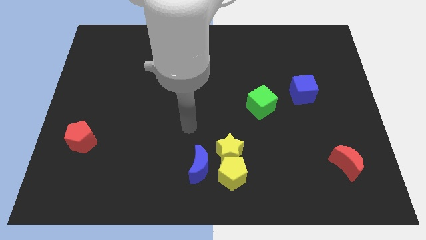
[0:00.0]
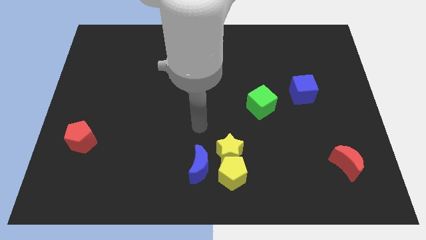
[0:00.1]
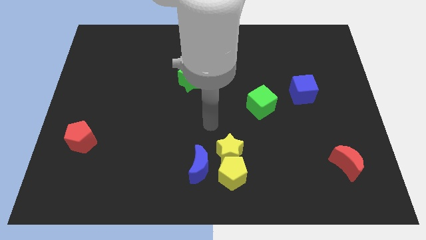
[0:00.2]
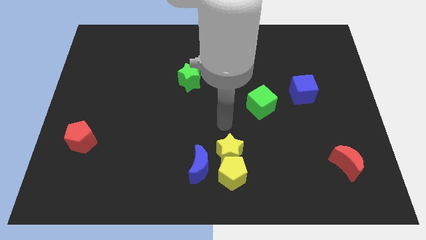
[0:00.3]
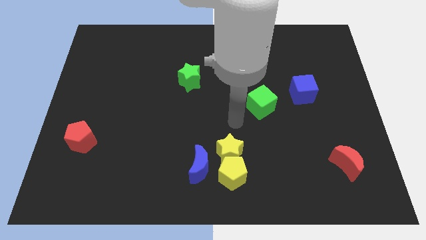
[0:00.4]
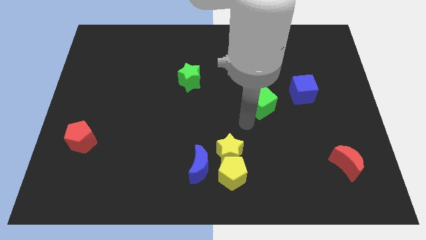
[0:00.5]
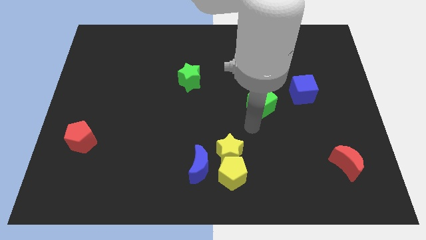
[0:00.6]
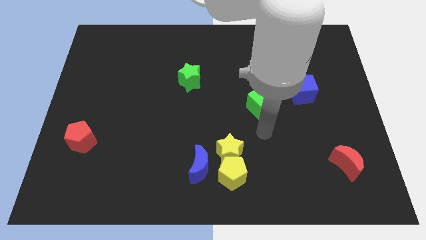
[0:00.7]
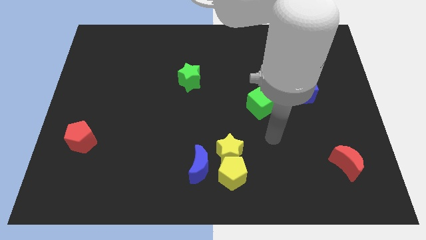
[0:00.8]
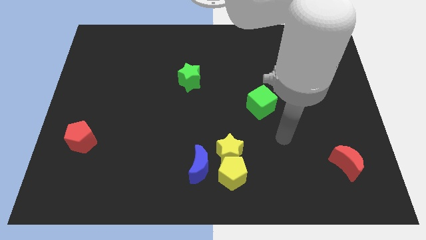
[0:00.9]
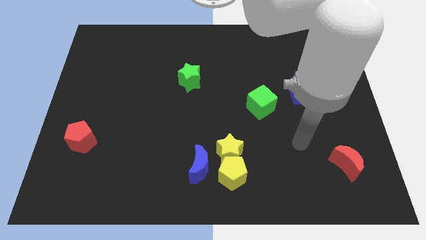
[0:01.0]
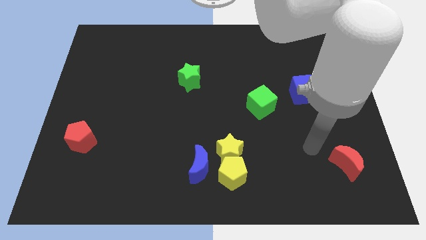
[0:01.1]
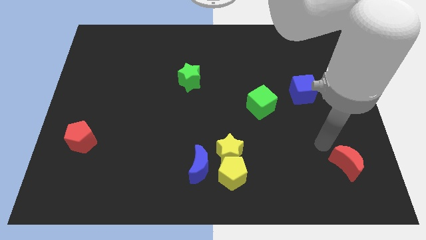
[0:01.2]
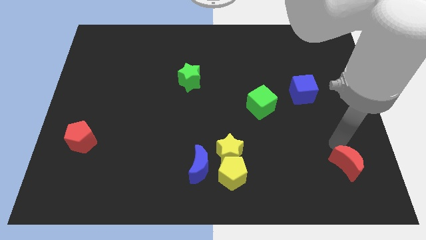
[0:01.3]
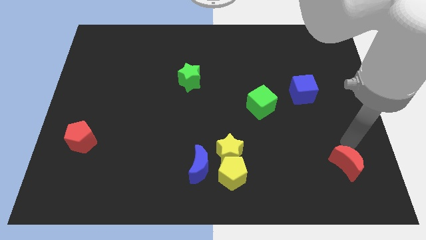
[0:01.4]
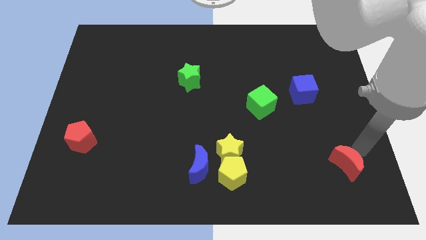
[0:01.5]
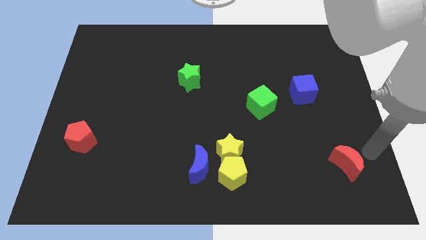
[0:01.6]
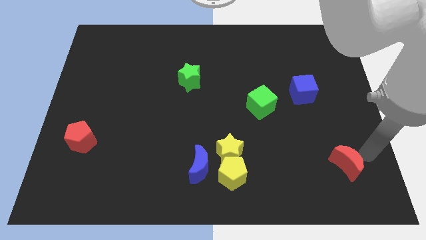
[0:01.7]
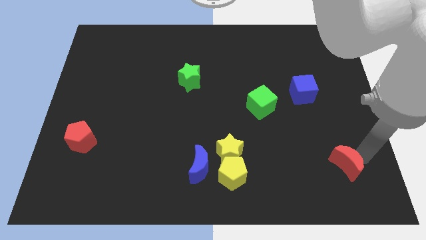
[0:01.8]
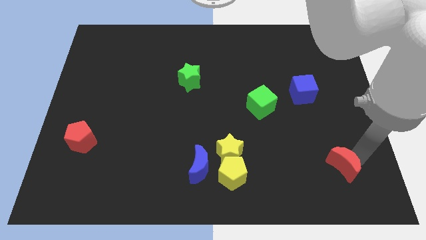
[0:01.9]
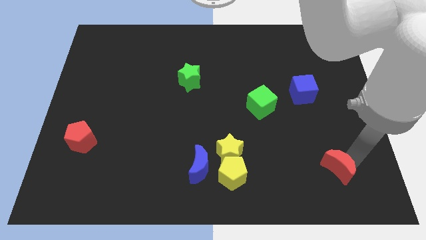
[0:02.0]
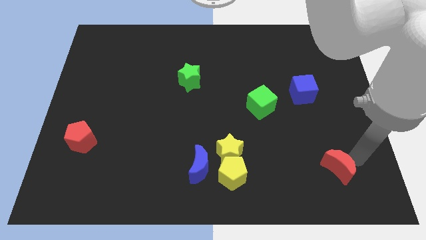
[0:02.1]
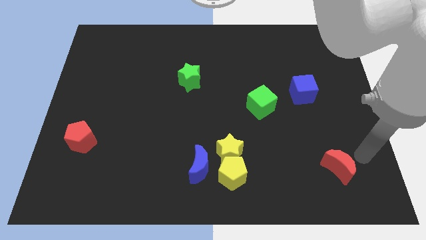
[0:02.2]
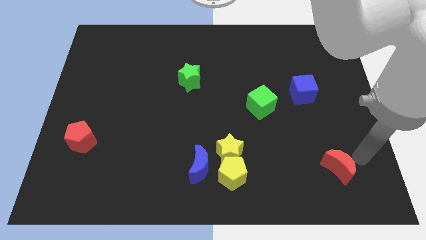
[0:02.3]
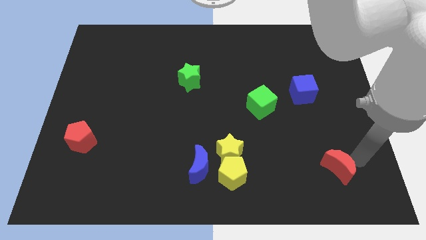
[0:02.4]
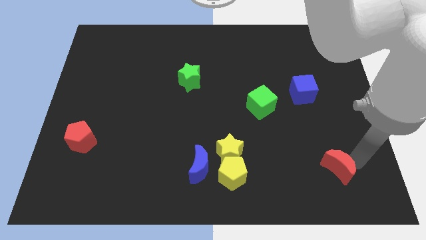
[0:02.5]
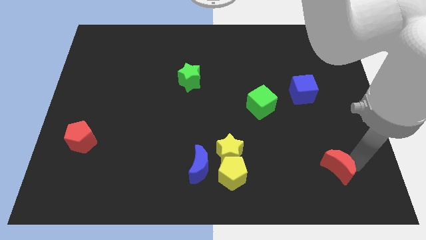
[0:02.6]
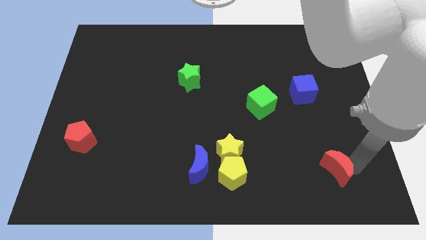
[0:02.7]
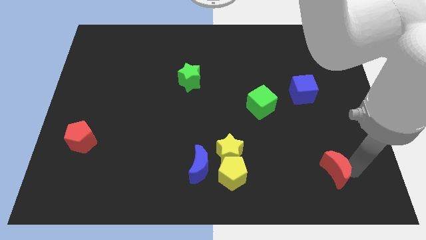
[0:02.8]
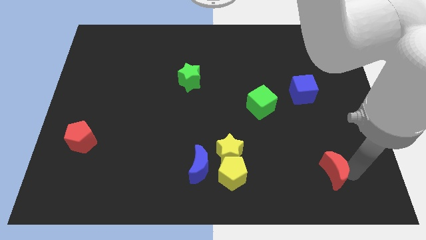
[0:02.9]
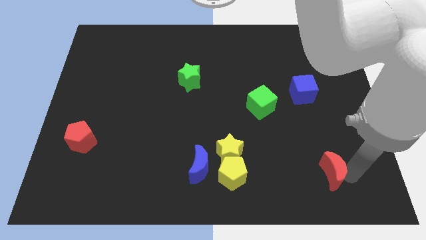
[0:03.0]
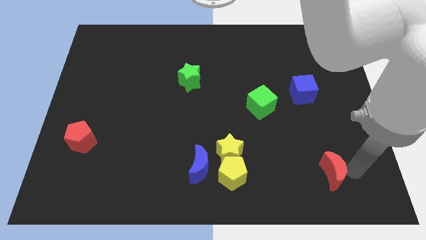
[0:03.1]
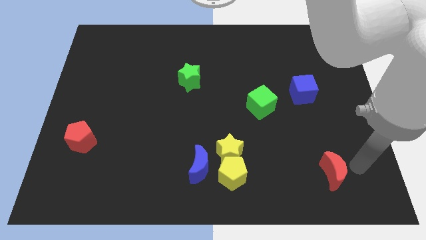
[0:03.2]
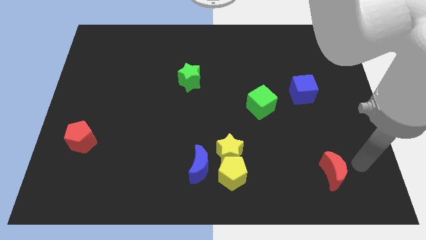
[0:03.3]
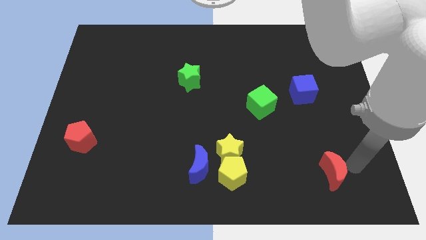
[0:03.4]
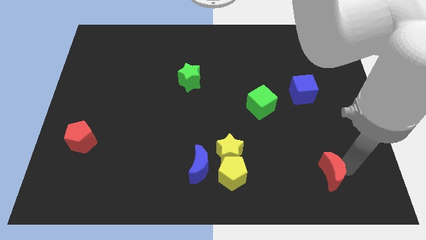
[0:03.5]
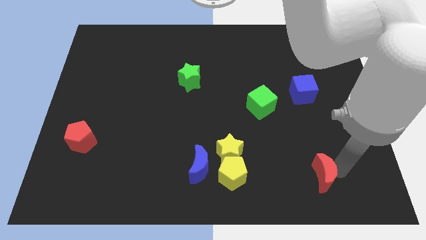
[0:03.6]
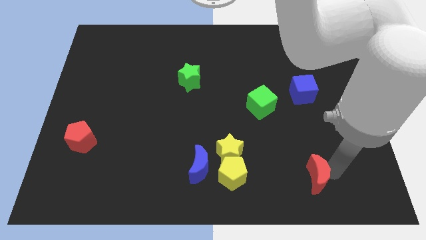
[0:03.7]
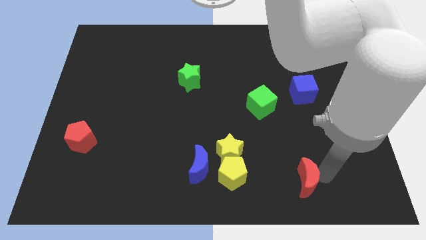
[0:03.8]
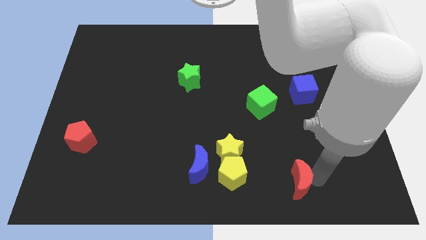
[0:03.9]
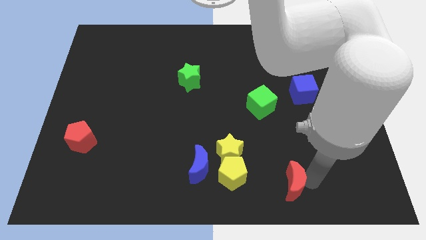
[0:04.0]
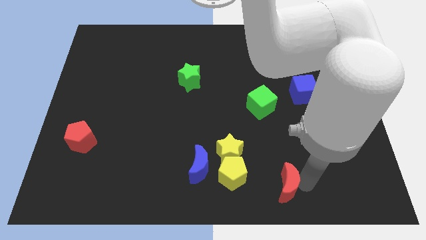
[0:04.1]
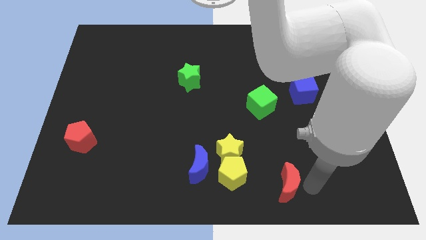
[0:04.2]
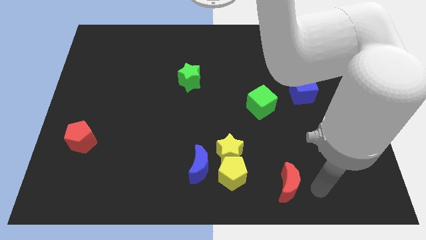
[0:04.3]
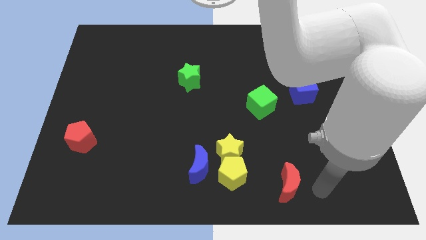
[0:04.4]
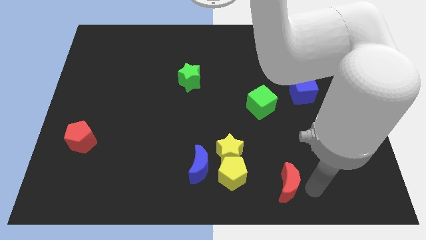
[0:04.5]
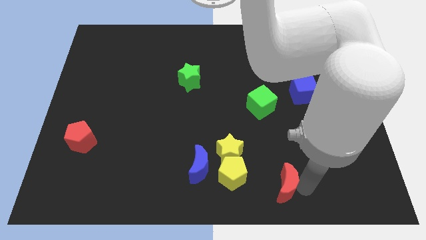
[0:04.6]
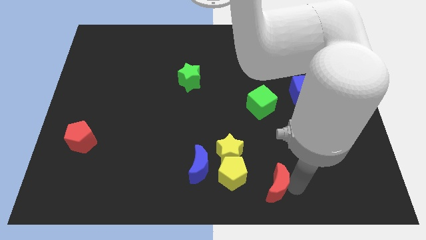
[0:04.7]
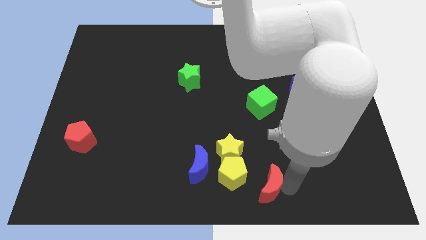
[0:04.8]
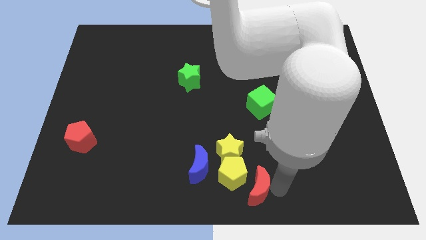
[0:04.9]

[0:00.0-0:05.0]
move the red moon close to the yellow pentagon

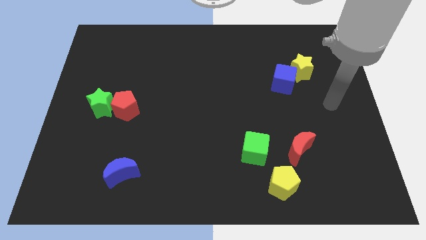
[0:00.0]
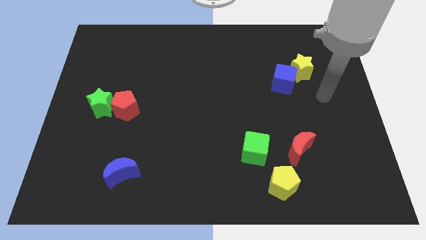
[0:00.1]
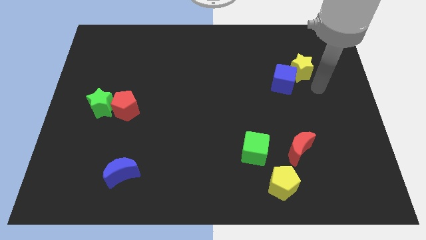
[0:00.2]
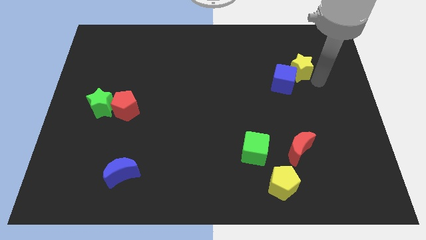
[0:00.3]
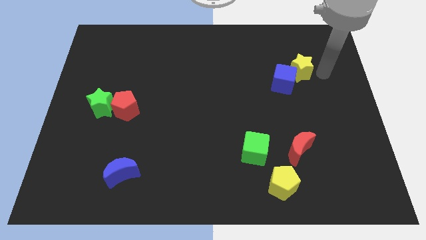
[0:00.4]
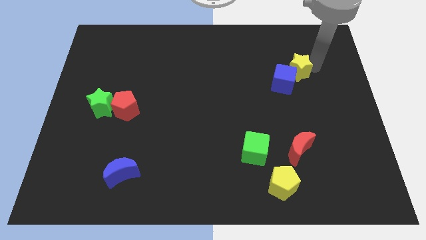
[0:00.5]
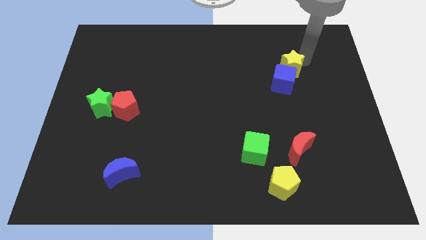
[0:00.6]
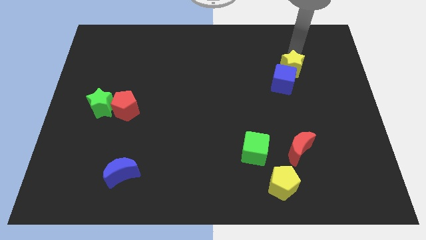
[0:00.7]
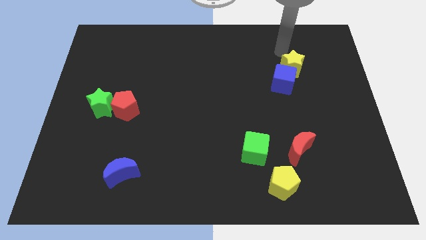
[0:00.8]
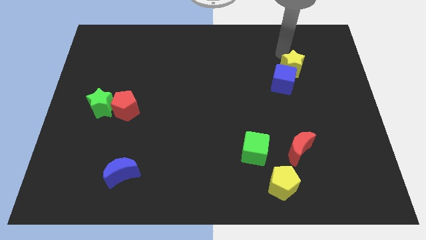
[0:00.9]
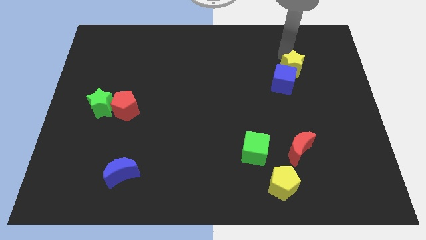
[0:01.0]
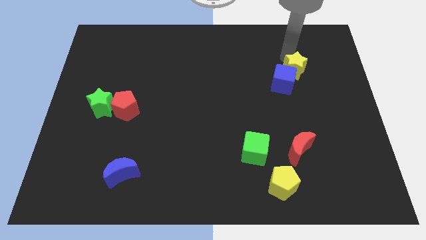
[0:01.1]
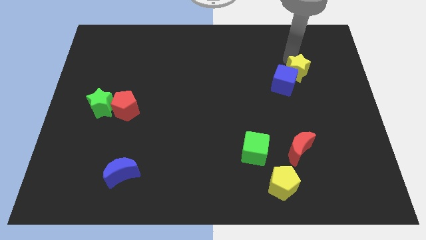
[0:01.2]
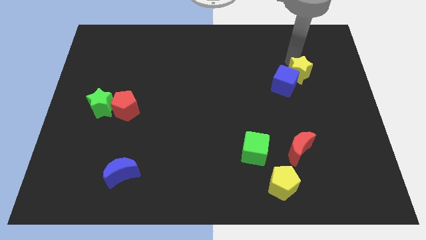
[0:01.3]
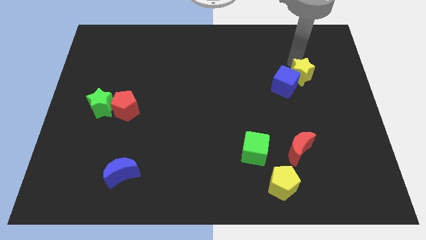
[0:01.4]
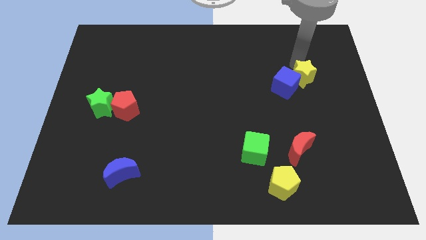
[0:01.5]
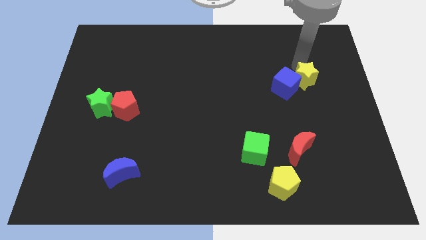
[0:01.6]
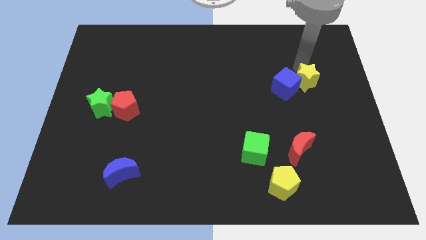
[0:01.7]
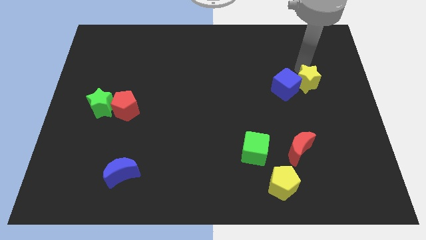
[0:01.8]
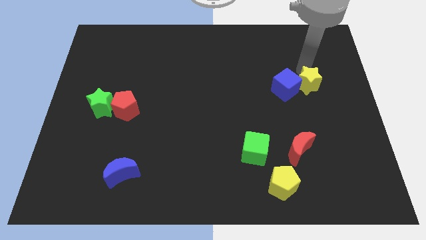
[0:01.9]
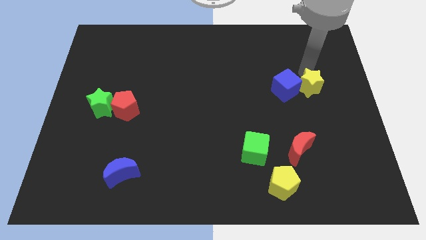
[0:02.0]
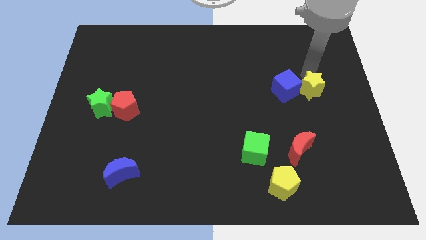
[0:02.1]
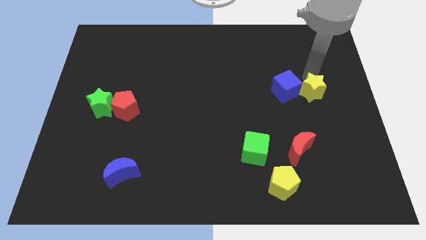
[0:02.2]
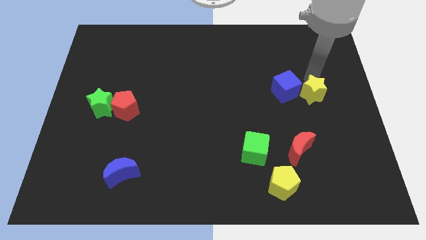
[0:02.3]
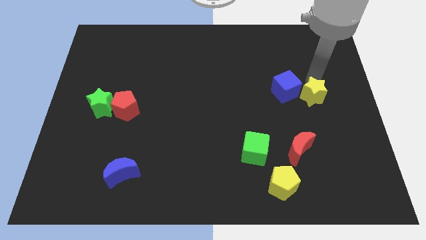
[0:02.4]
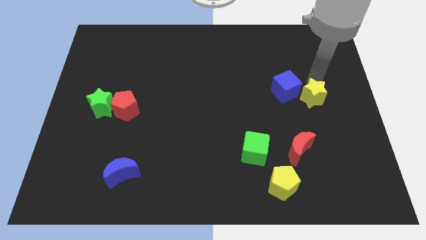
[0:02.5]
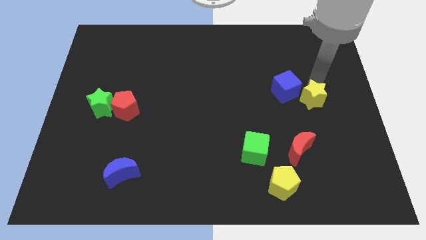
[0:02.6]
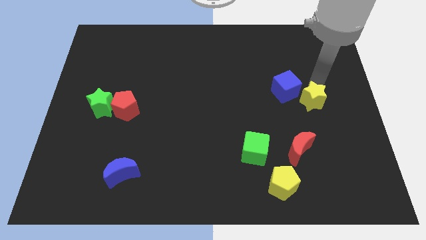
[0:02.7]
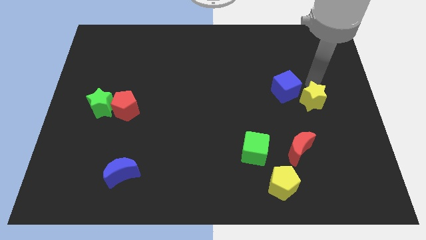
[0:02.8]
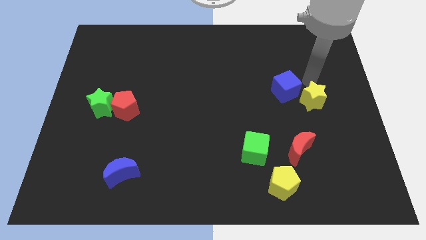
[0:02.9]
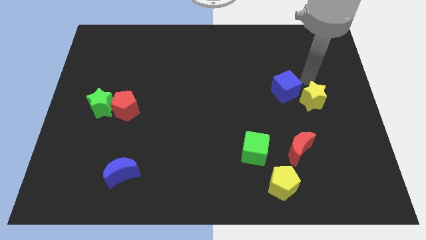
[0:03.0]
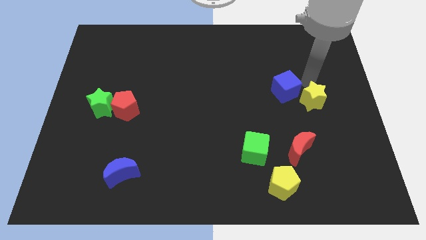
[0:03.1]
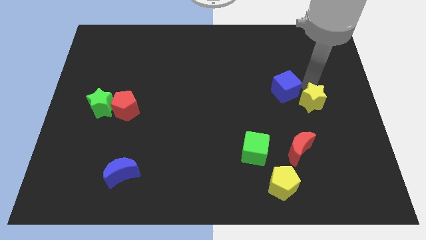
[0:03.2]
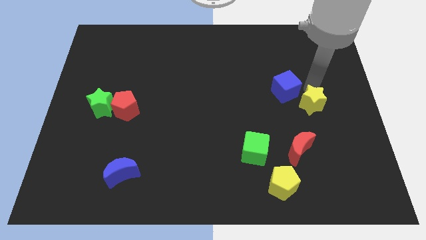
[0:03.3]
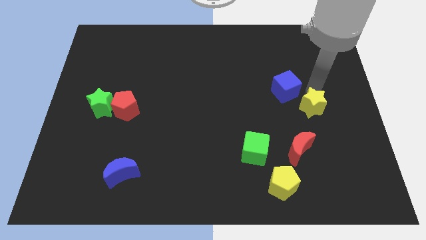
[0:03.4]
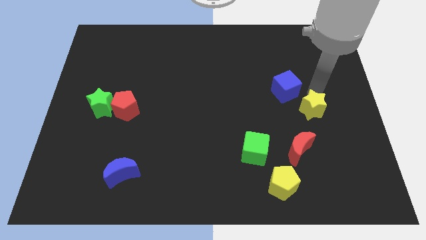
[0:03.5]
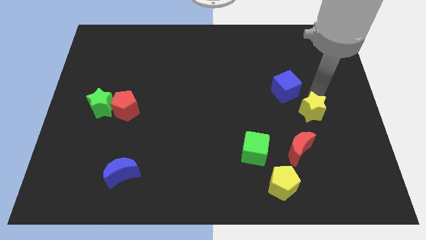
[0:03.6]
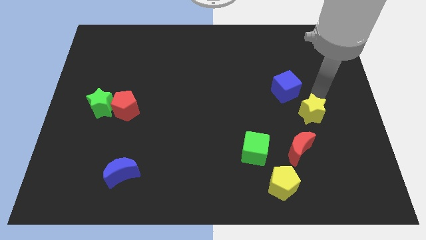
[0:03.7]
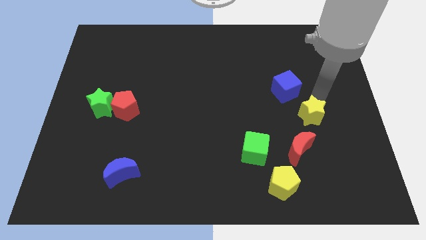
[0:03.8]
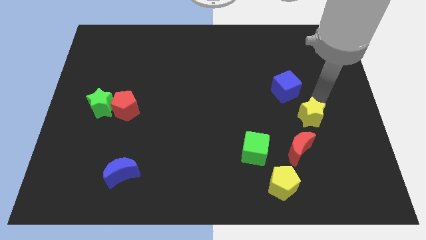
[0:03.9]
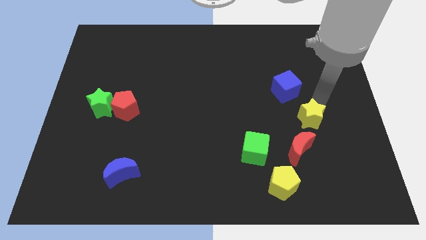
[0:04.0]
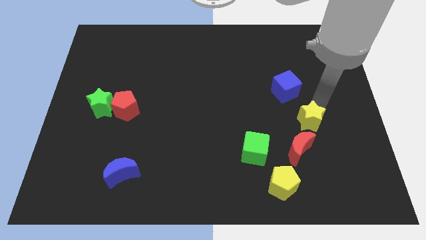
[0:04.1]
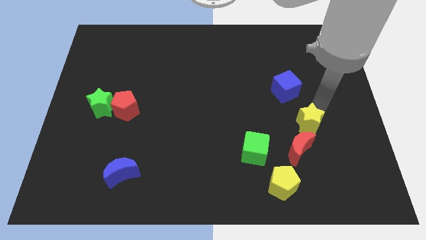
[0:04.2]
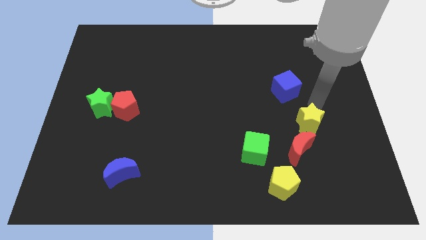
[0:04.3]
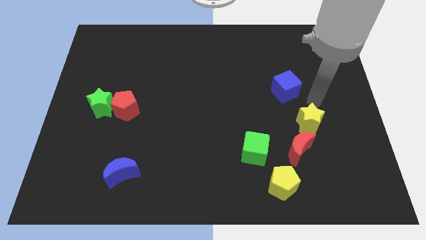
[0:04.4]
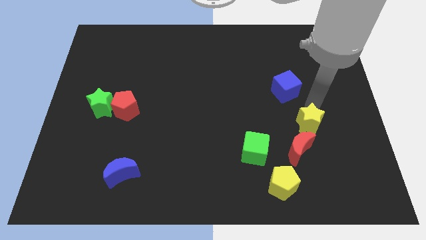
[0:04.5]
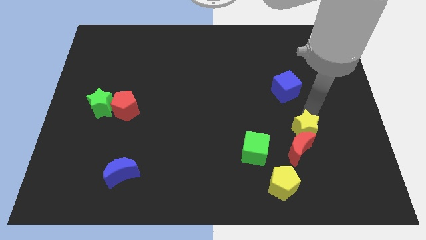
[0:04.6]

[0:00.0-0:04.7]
slide the yellow star next to the red moon
